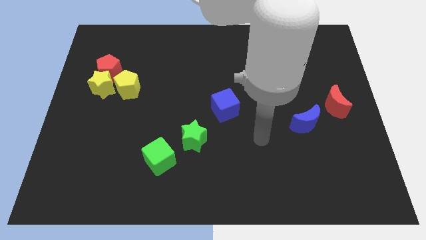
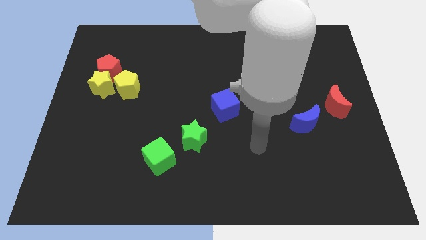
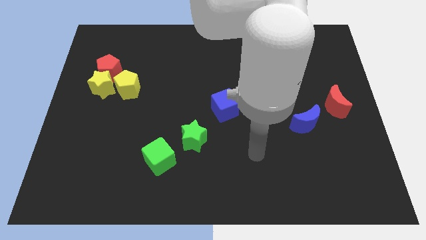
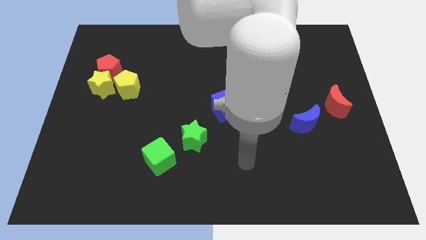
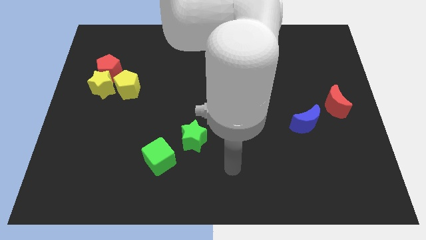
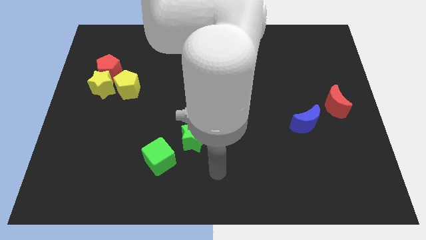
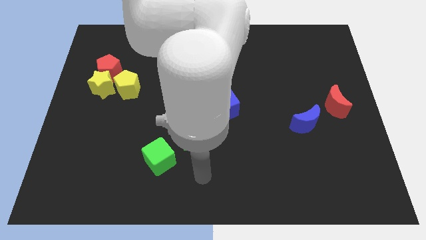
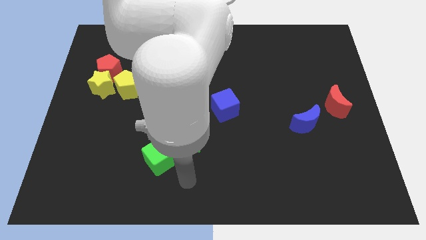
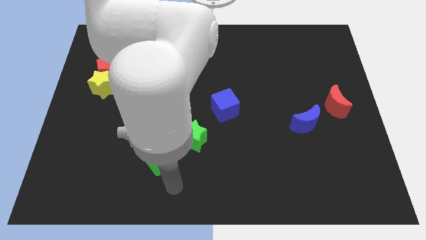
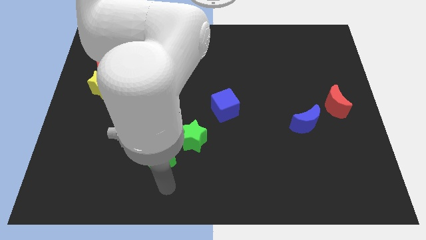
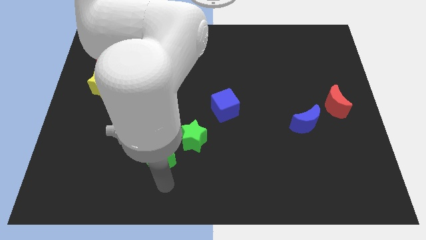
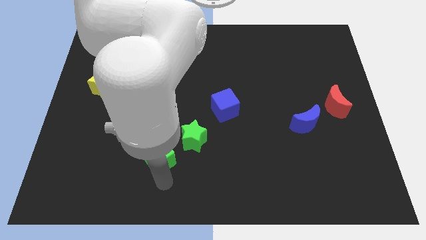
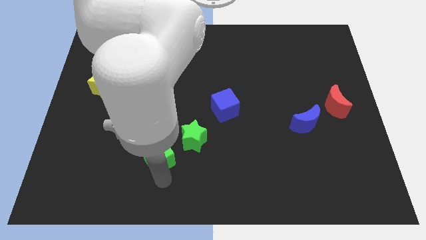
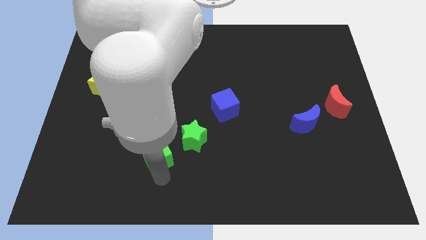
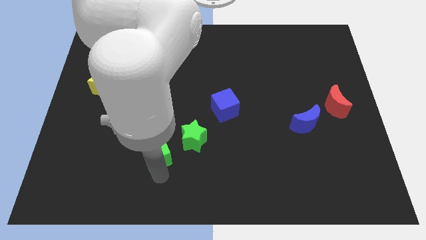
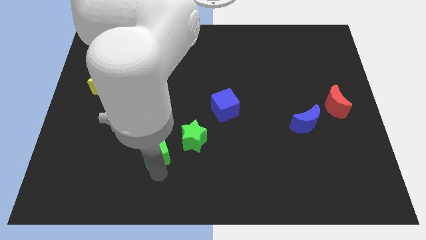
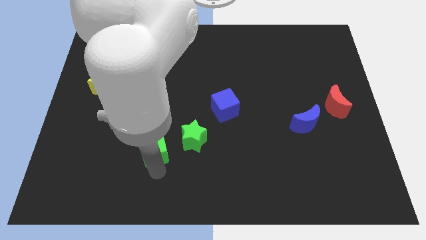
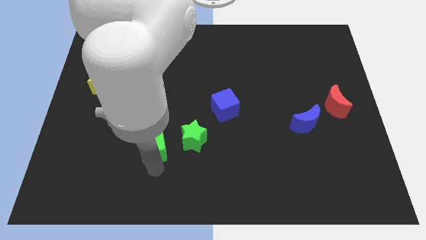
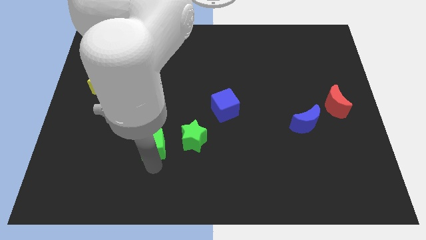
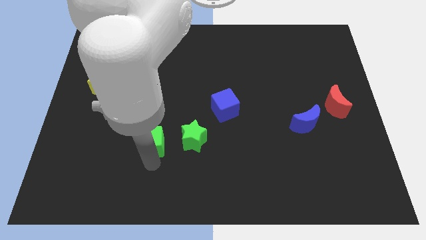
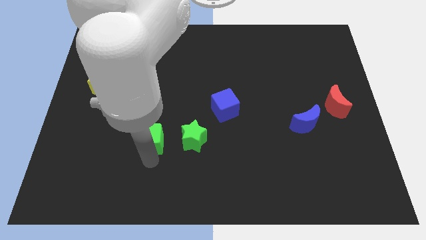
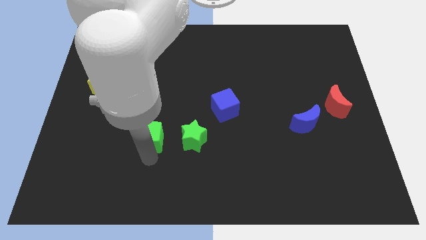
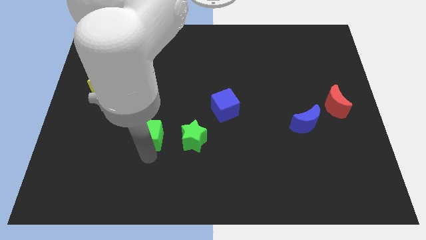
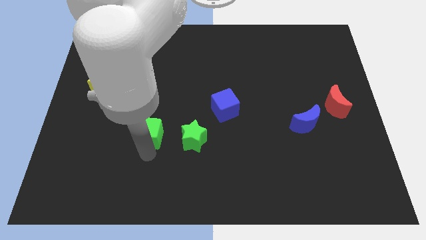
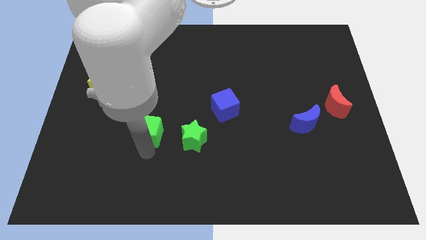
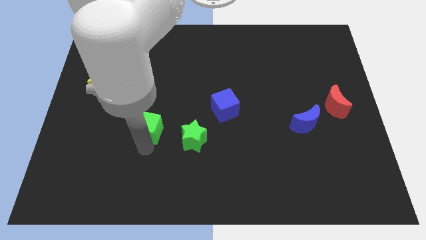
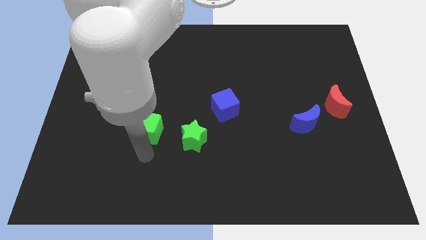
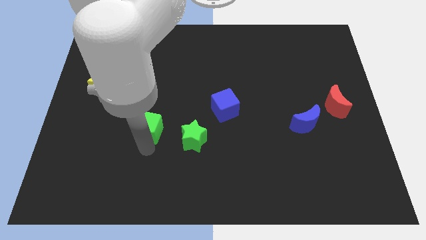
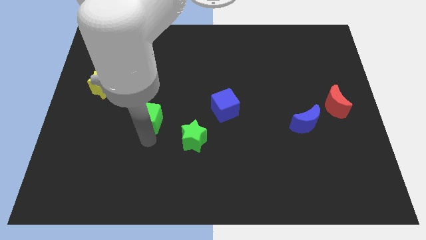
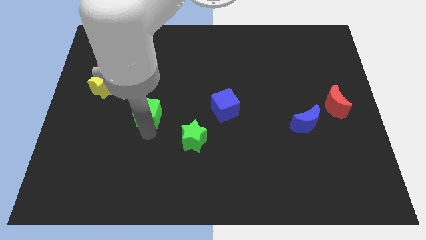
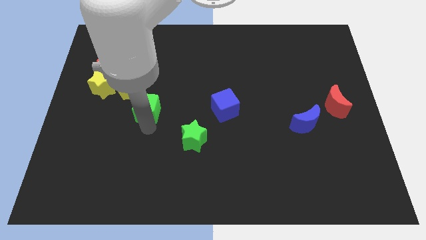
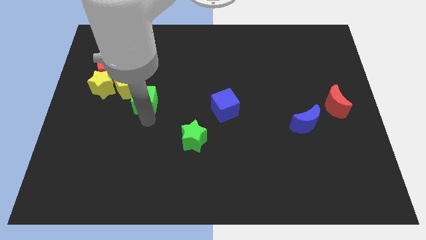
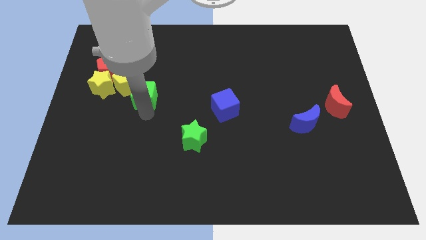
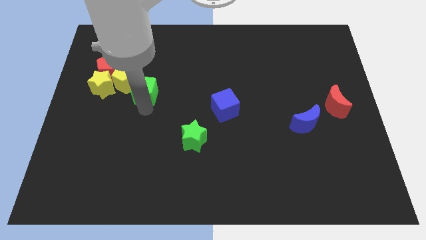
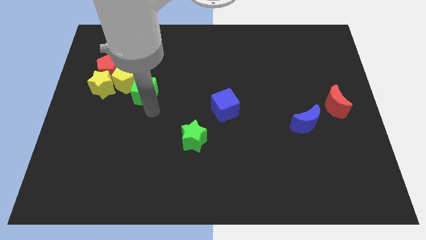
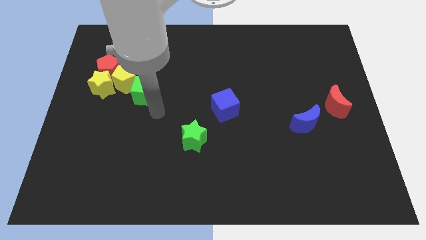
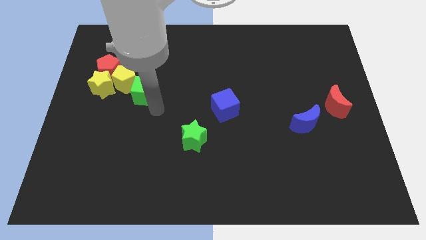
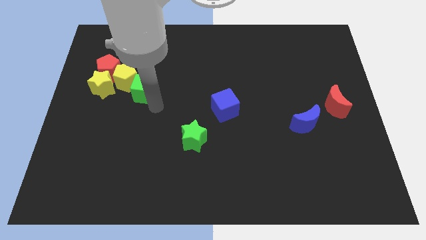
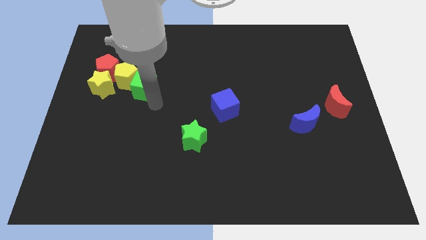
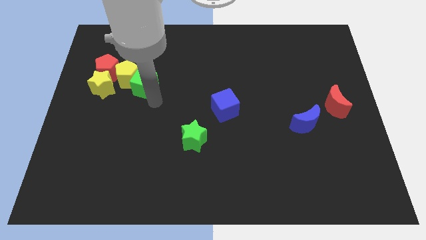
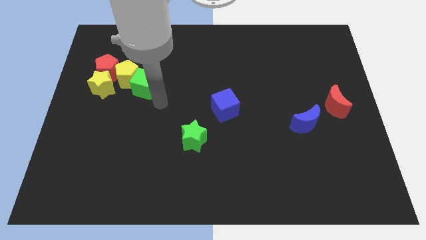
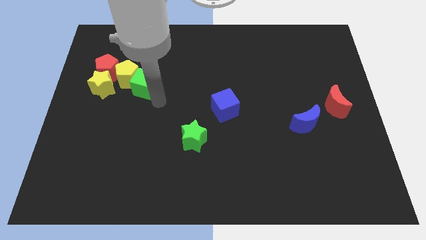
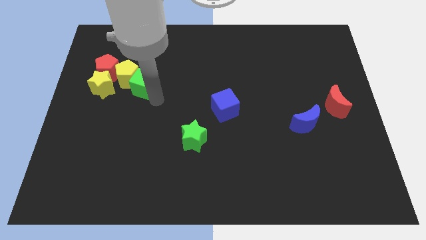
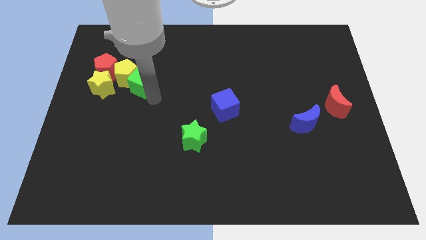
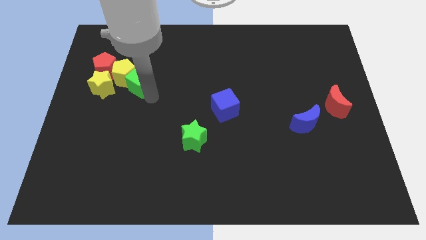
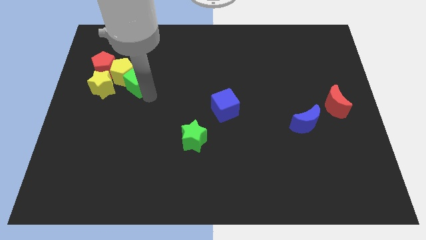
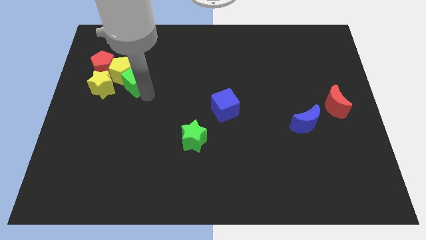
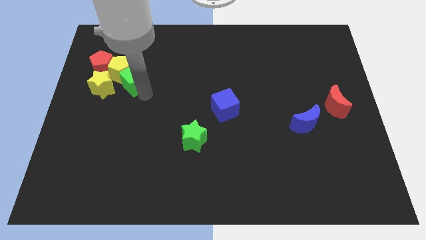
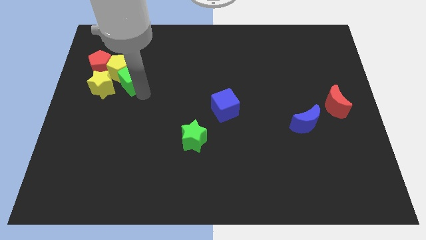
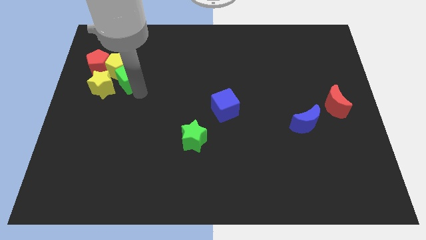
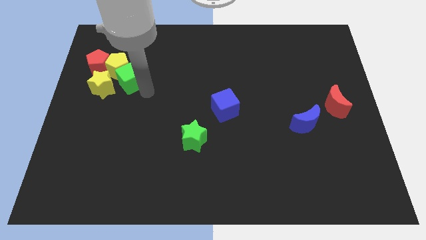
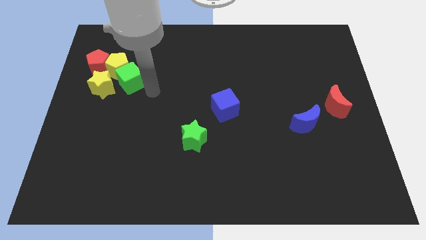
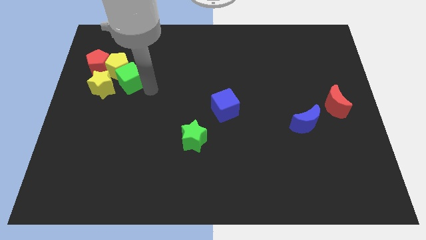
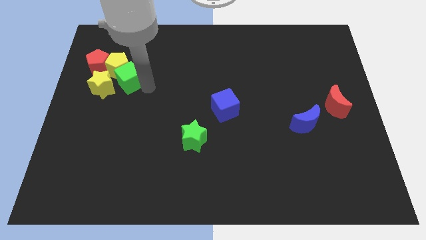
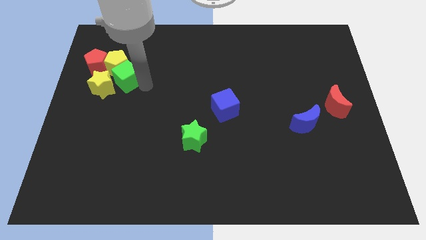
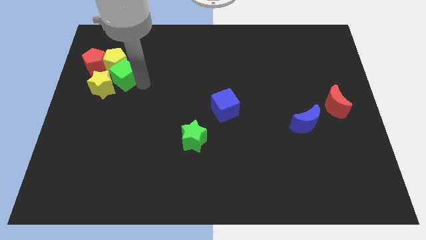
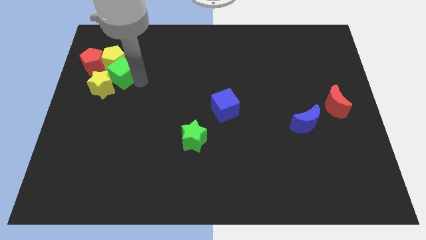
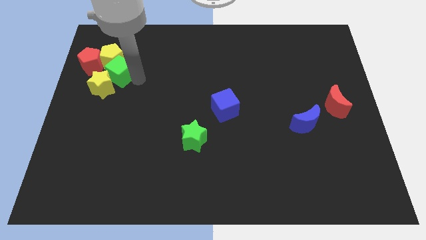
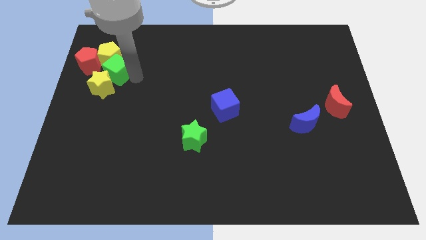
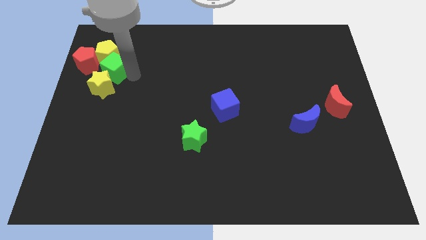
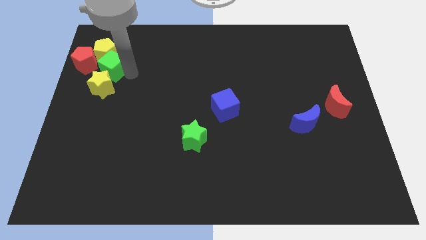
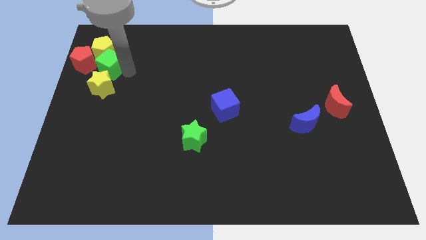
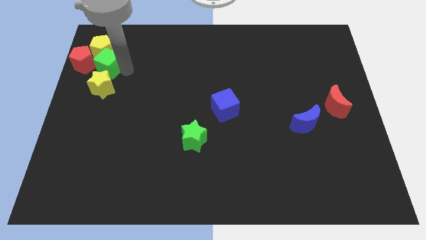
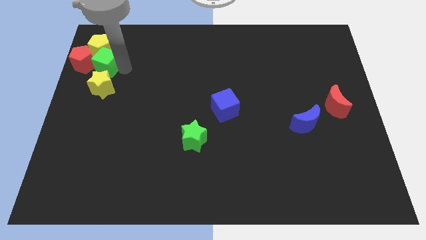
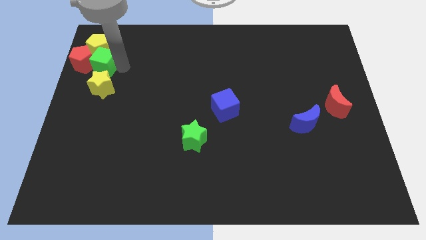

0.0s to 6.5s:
push the green cube close to the red pentagon

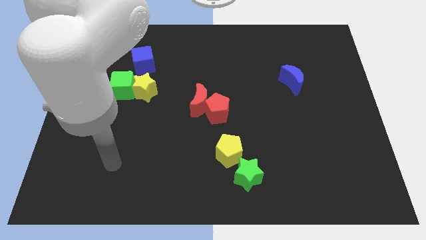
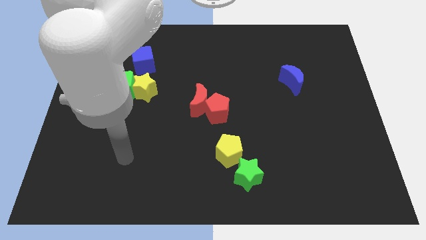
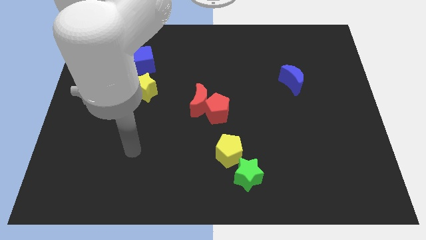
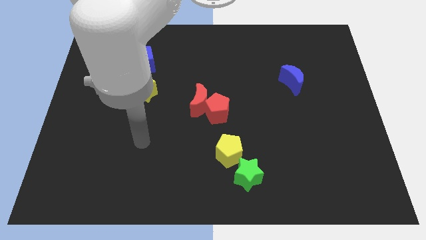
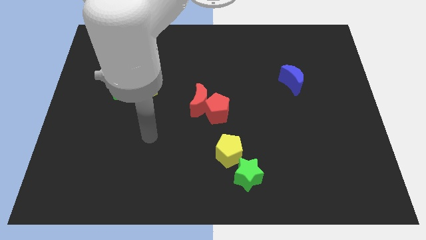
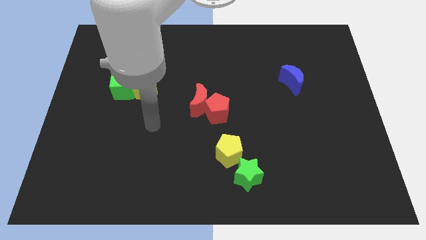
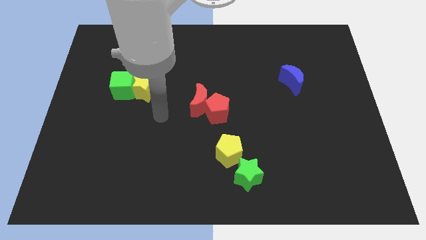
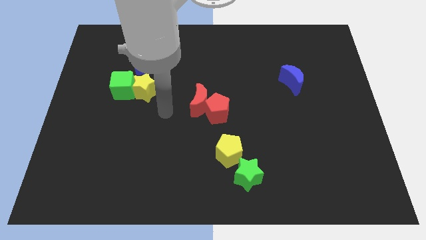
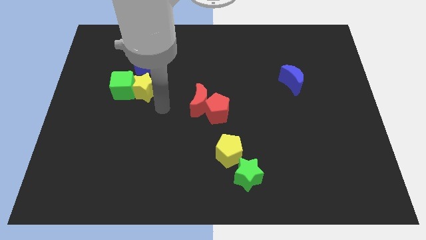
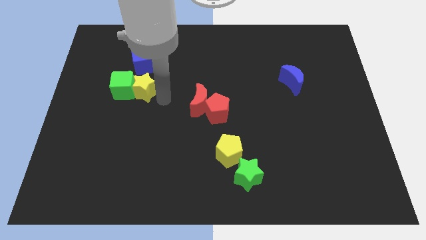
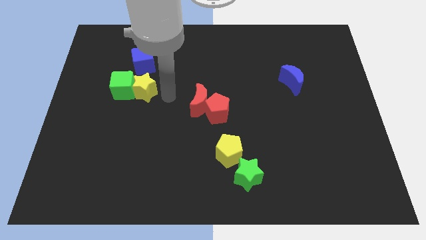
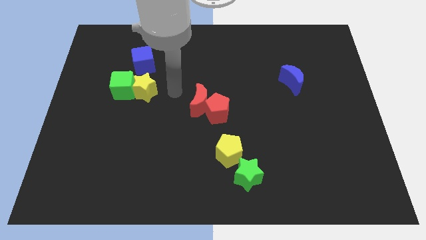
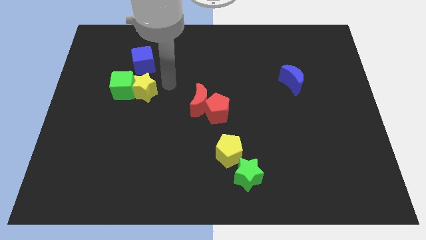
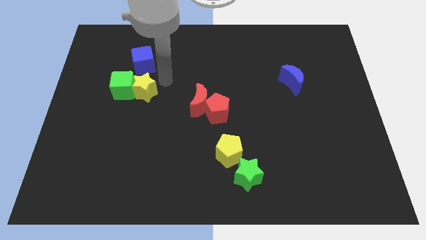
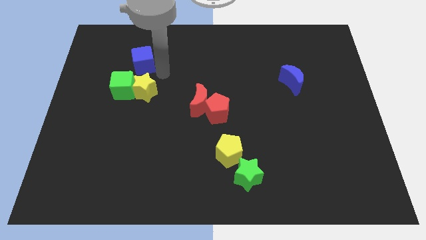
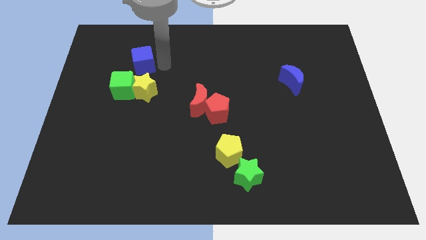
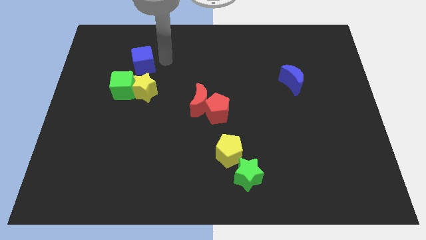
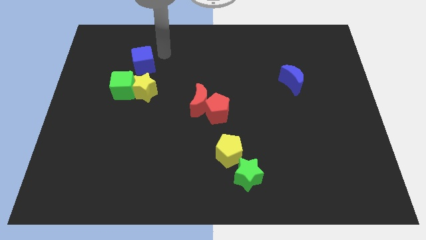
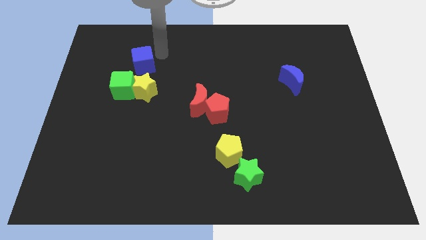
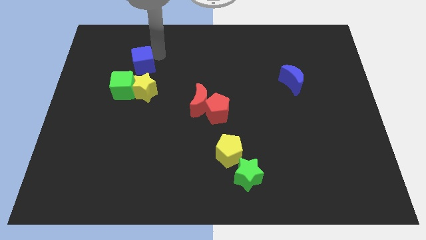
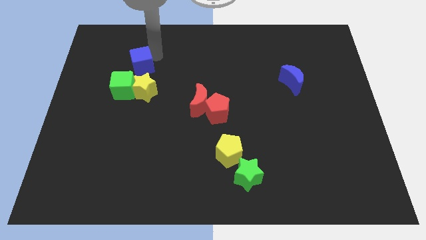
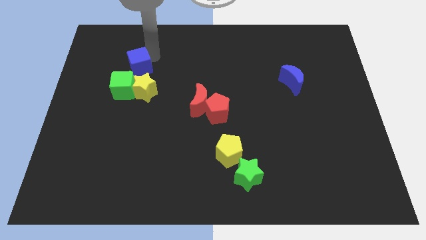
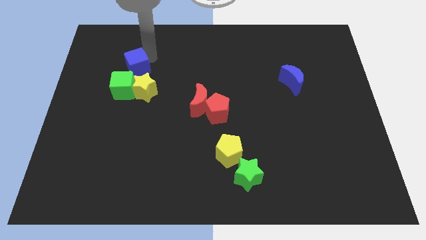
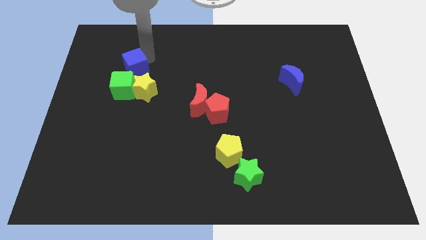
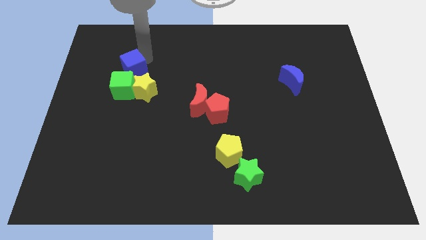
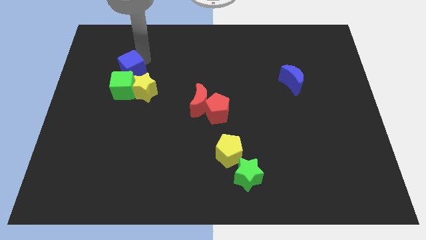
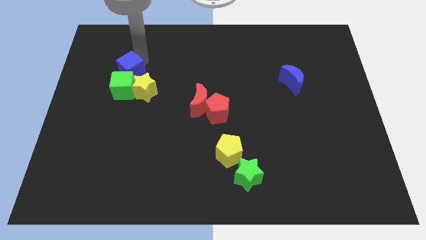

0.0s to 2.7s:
move the blue cube to the green cube
